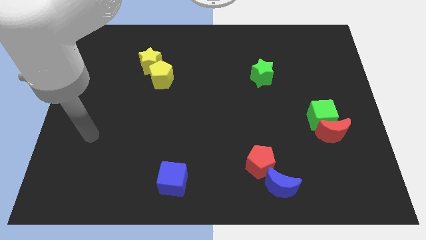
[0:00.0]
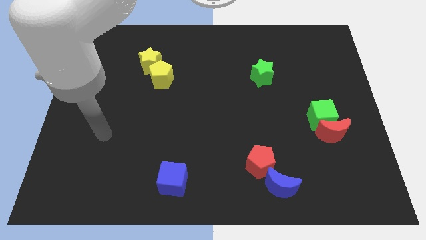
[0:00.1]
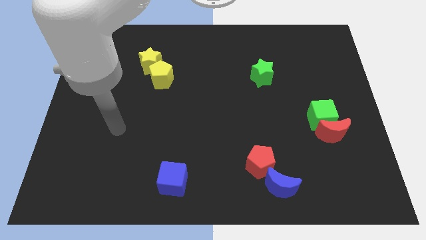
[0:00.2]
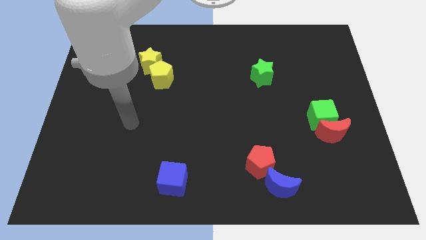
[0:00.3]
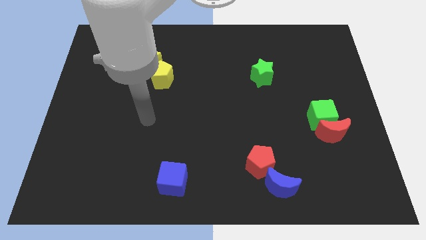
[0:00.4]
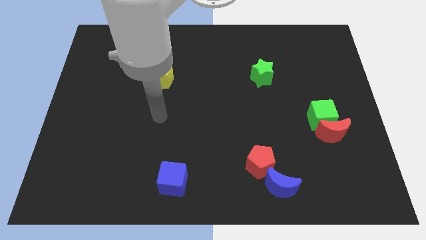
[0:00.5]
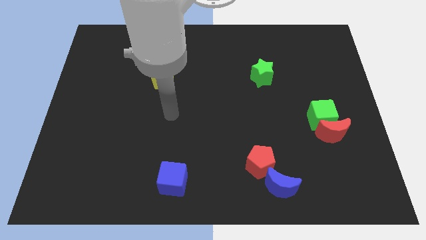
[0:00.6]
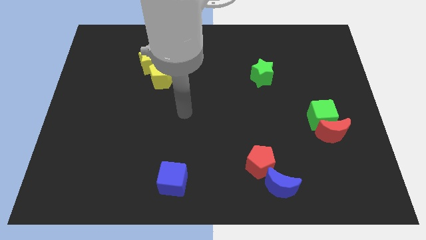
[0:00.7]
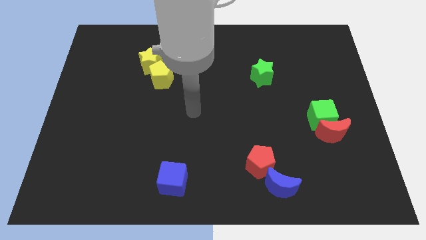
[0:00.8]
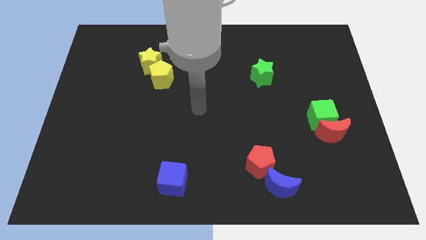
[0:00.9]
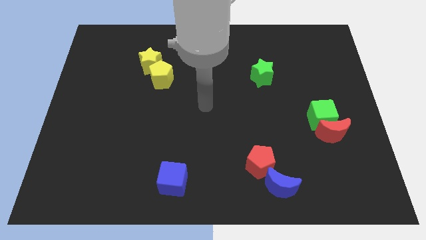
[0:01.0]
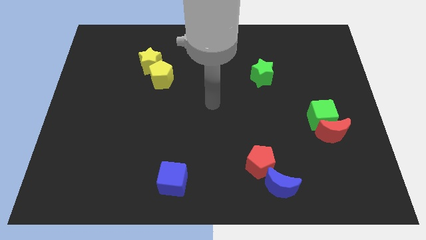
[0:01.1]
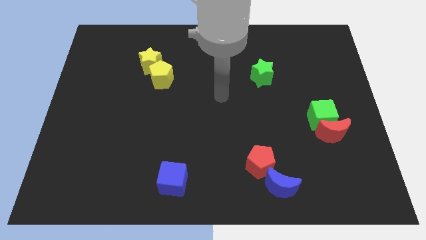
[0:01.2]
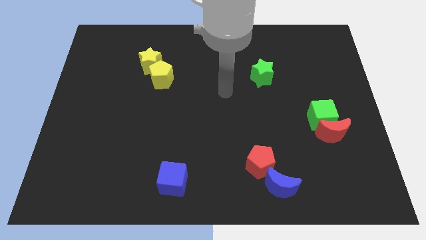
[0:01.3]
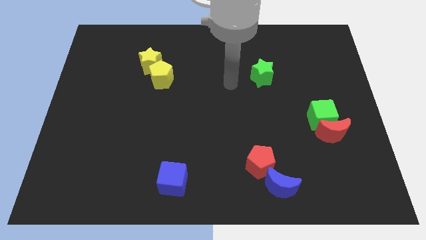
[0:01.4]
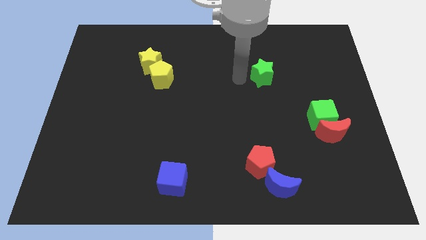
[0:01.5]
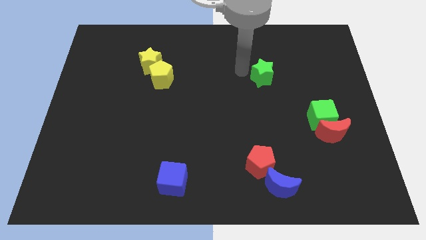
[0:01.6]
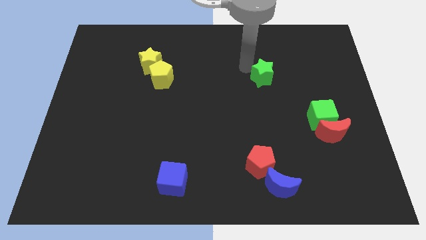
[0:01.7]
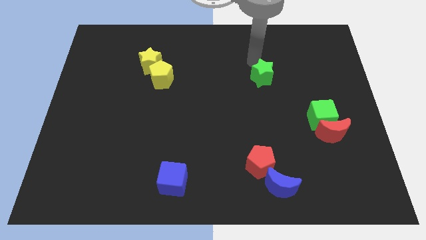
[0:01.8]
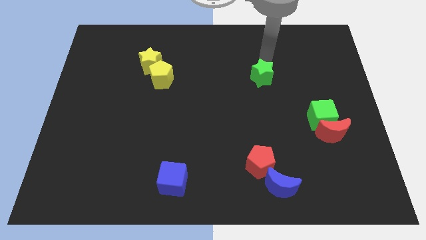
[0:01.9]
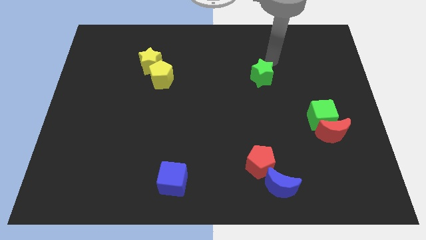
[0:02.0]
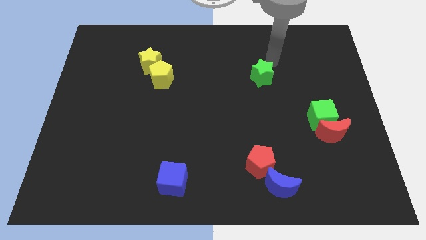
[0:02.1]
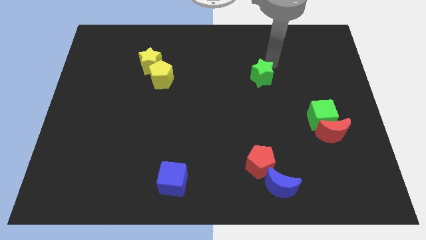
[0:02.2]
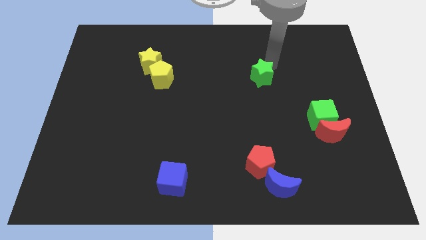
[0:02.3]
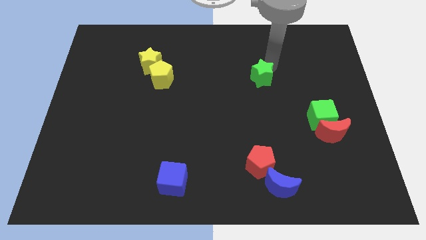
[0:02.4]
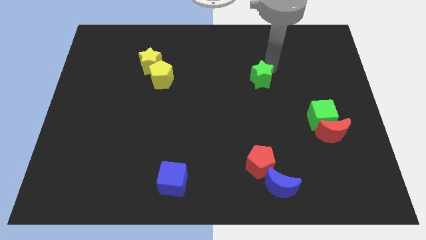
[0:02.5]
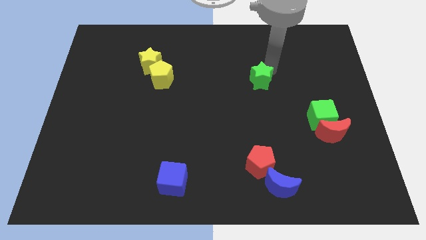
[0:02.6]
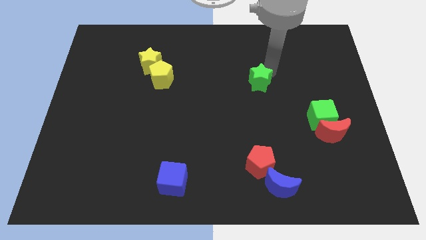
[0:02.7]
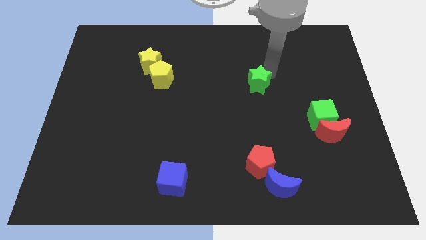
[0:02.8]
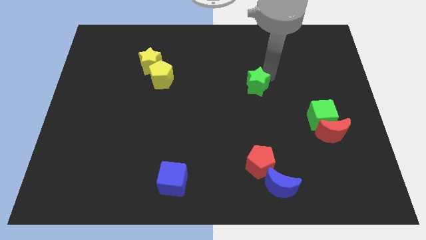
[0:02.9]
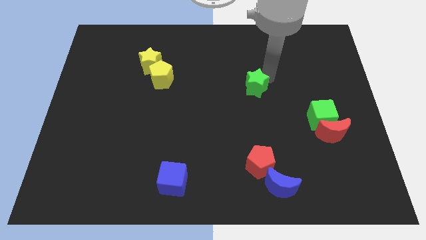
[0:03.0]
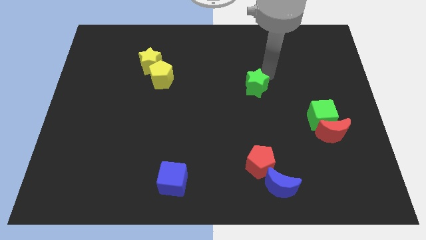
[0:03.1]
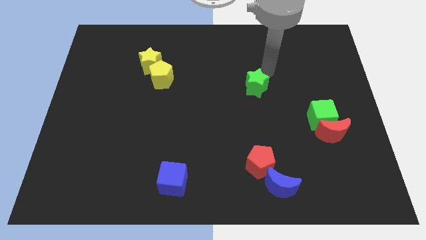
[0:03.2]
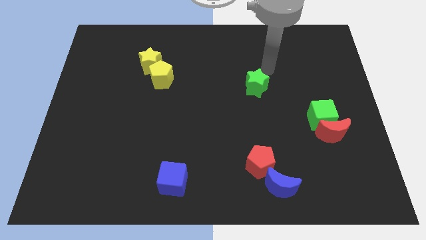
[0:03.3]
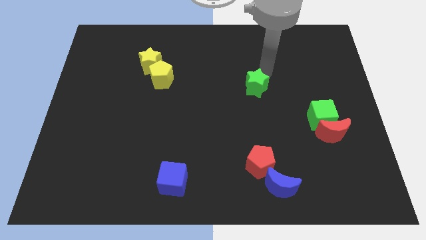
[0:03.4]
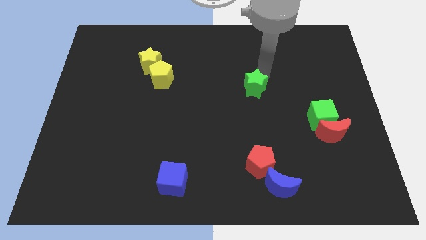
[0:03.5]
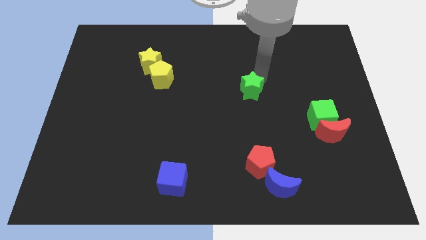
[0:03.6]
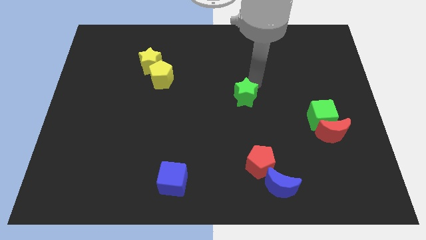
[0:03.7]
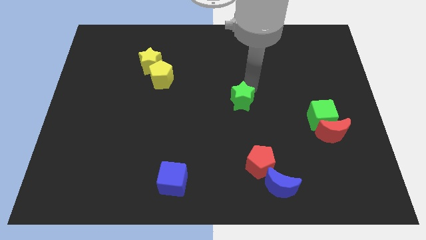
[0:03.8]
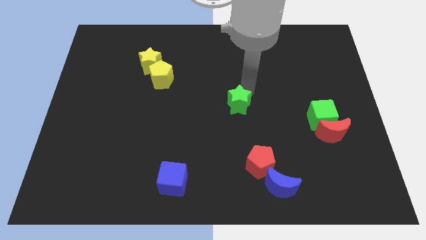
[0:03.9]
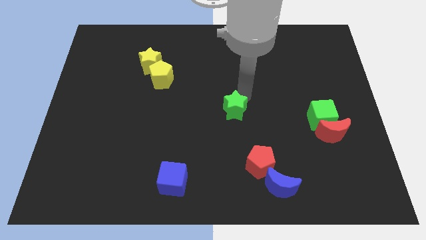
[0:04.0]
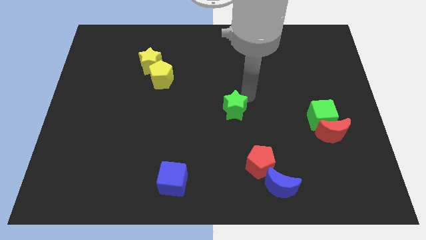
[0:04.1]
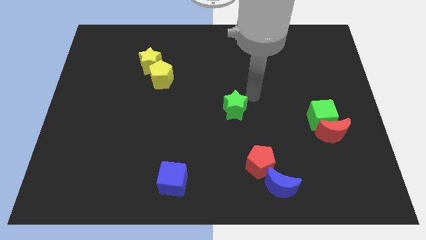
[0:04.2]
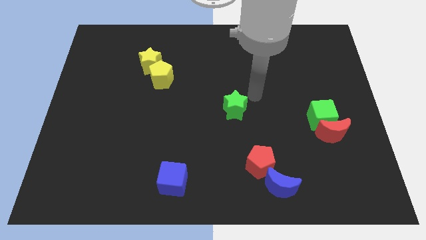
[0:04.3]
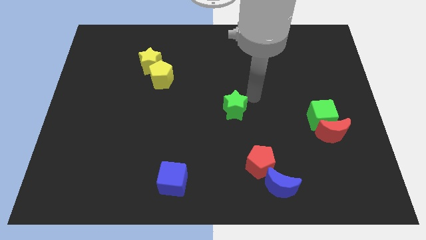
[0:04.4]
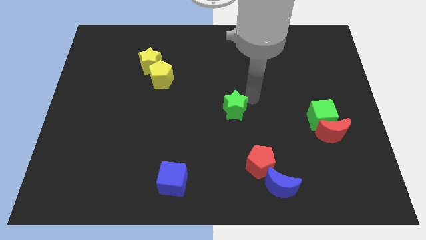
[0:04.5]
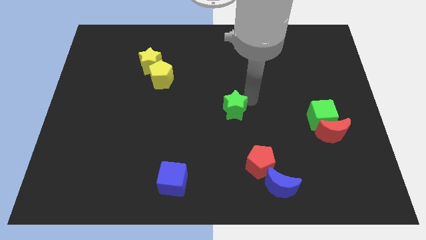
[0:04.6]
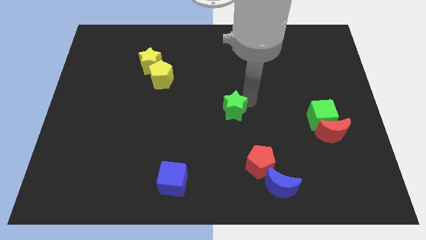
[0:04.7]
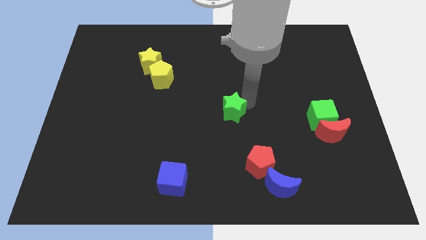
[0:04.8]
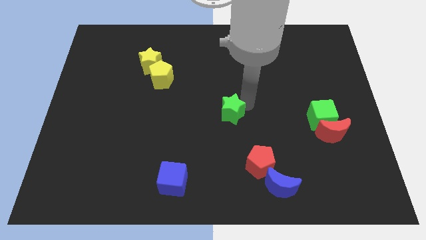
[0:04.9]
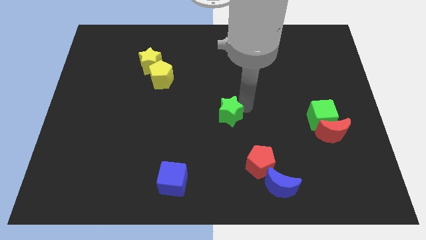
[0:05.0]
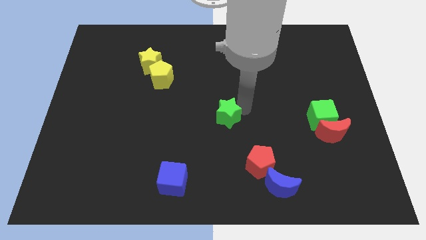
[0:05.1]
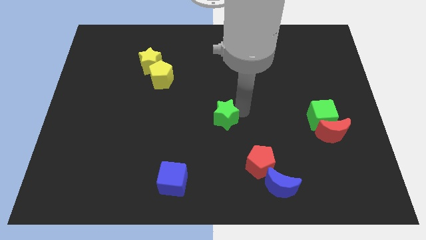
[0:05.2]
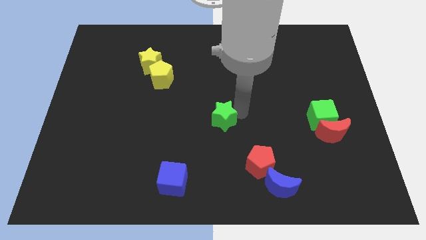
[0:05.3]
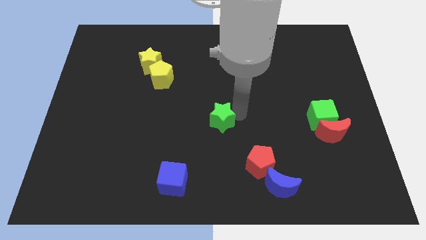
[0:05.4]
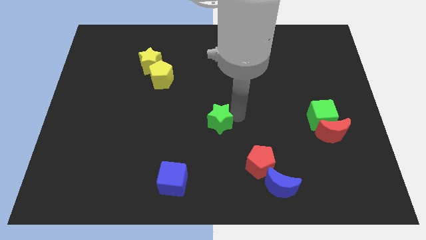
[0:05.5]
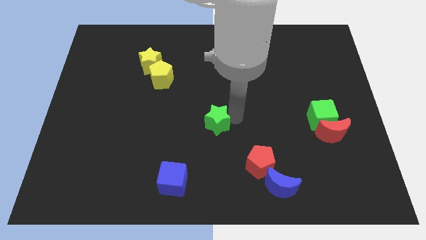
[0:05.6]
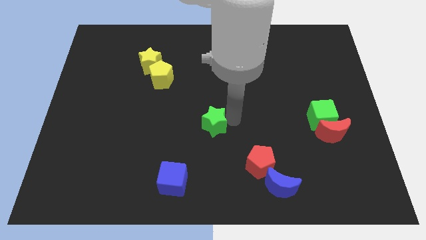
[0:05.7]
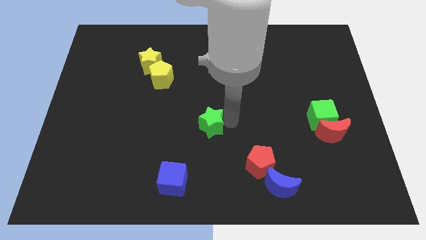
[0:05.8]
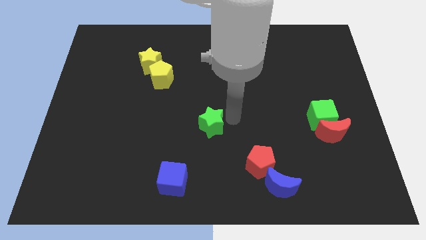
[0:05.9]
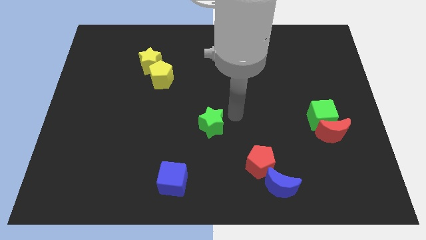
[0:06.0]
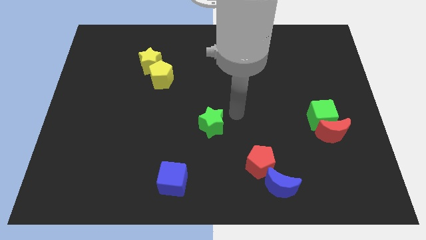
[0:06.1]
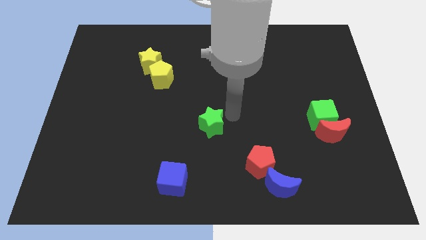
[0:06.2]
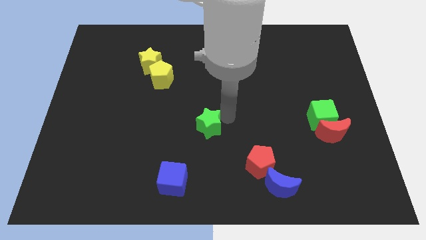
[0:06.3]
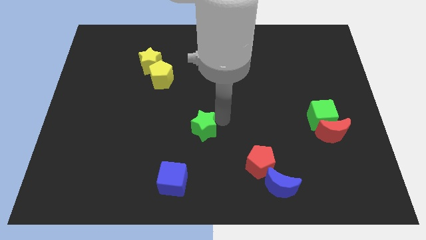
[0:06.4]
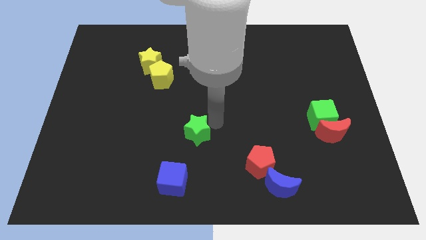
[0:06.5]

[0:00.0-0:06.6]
slide the green star to the top side of the blue cube

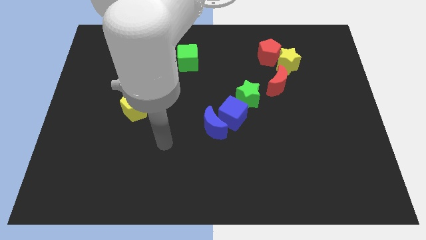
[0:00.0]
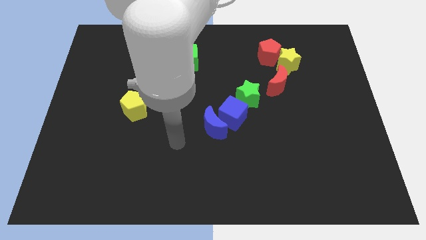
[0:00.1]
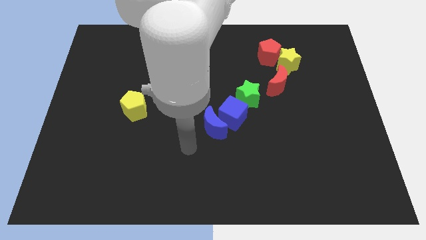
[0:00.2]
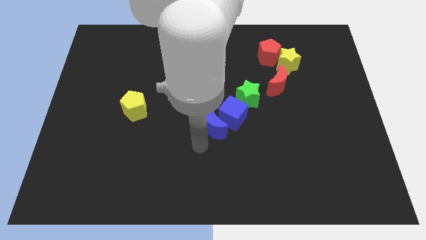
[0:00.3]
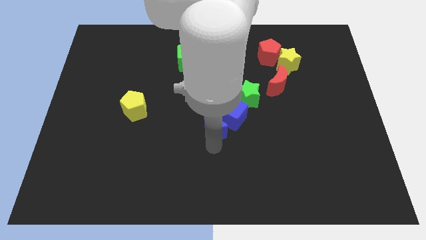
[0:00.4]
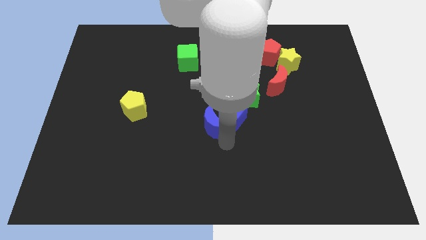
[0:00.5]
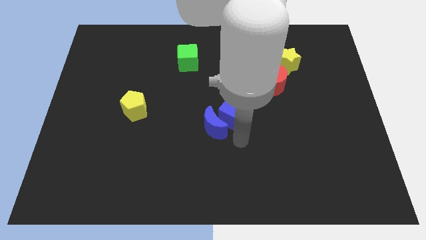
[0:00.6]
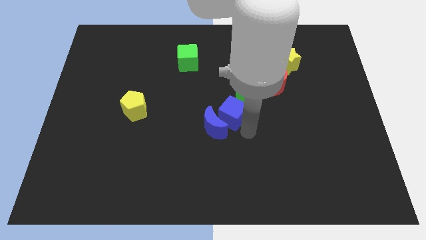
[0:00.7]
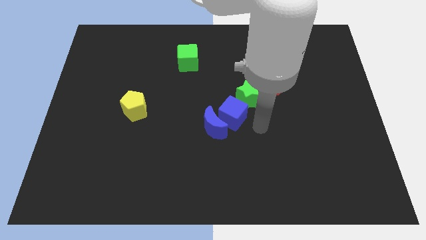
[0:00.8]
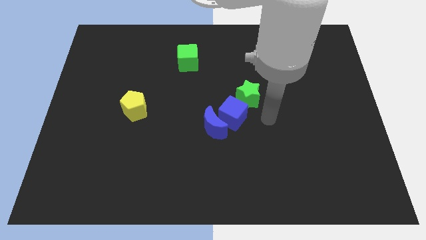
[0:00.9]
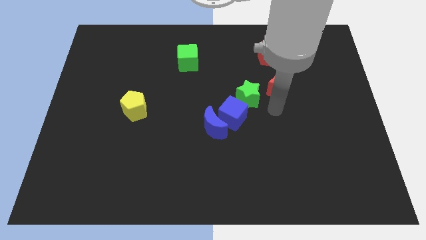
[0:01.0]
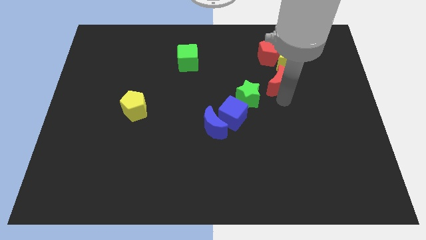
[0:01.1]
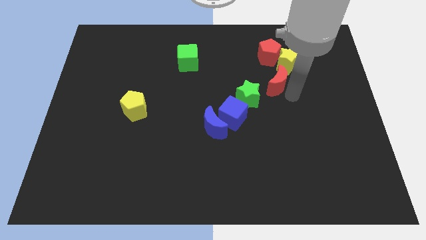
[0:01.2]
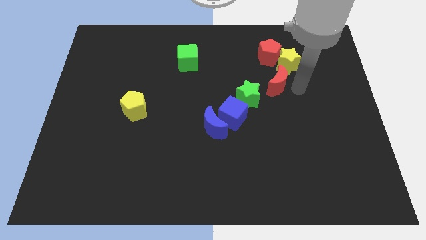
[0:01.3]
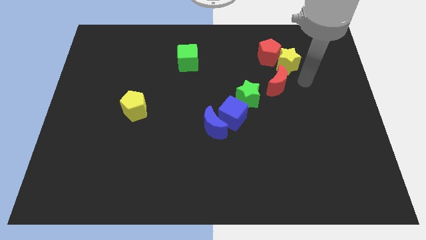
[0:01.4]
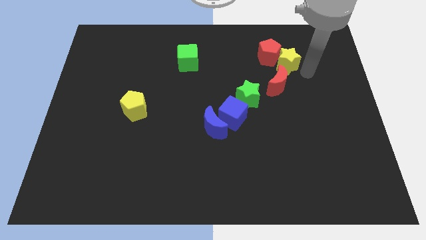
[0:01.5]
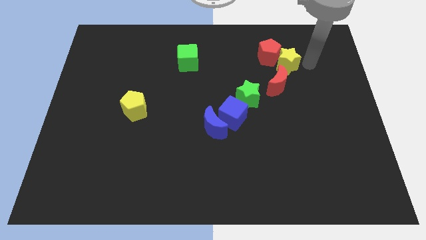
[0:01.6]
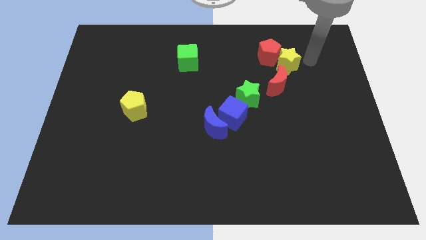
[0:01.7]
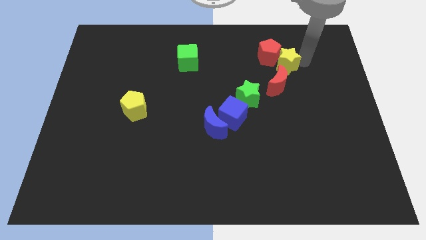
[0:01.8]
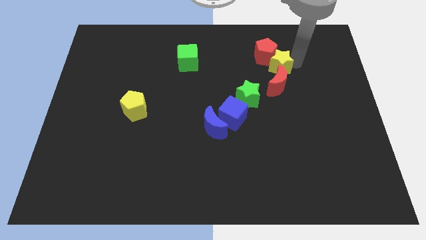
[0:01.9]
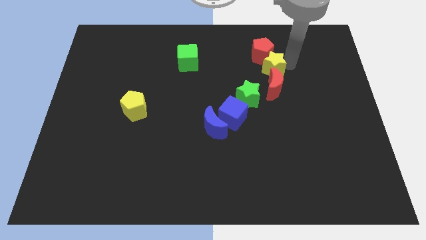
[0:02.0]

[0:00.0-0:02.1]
push the yellow star diagonally up and to the left of the red moon
